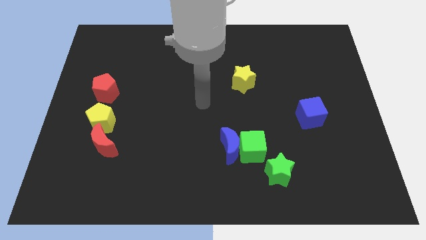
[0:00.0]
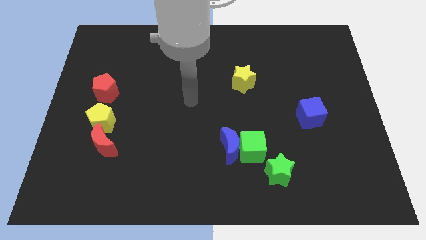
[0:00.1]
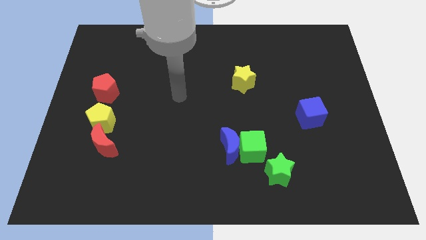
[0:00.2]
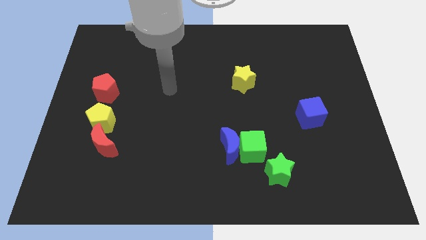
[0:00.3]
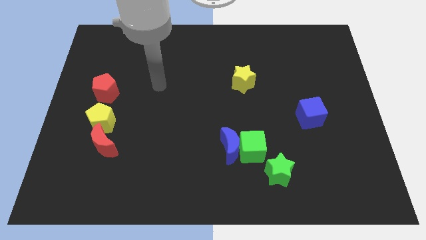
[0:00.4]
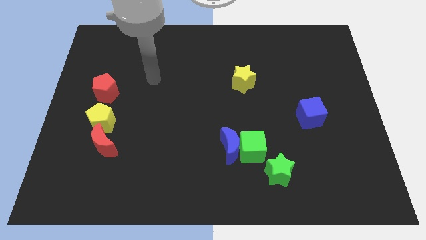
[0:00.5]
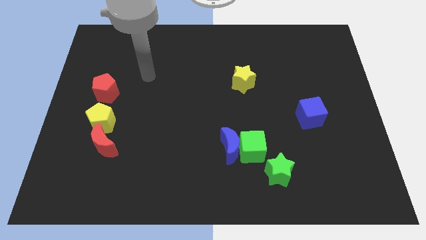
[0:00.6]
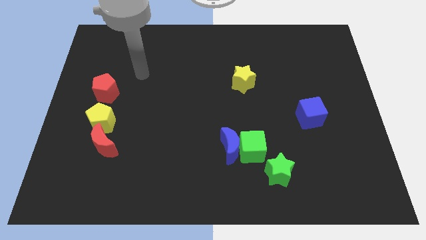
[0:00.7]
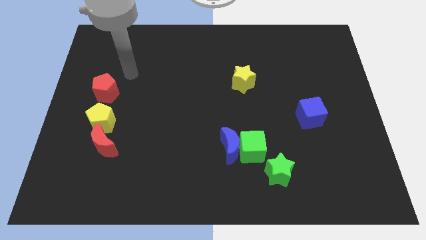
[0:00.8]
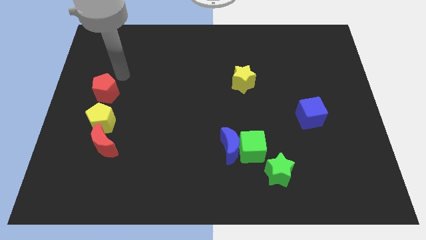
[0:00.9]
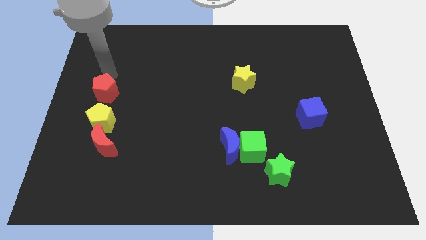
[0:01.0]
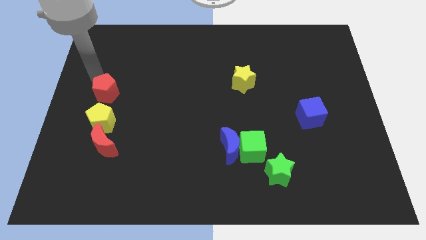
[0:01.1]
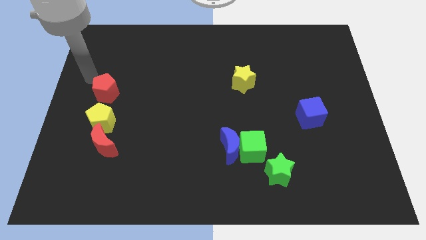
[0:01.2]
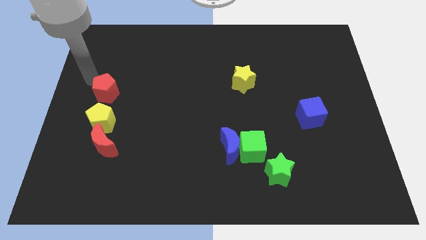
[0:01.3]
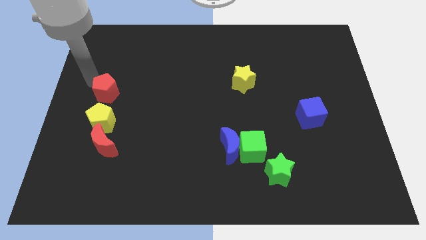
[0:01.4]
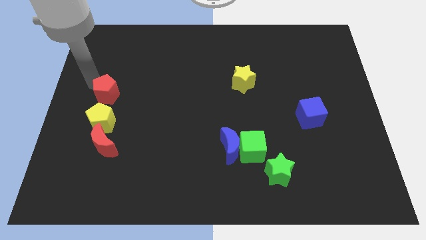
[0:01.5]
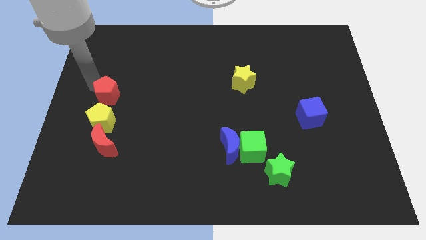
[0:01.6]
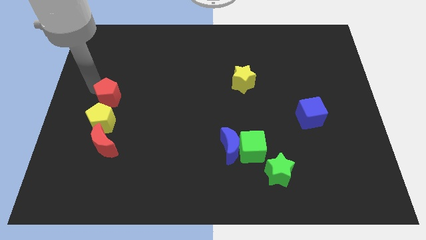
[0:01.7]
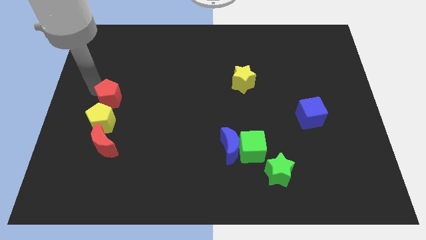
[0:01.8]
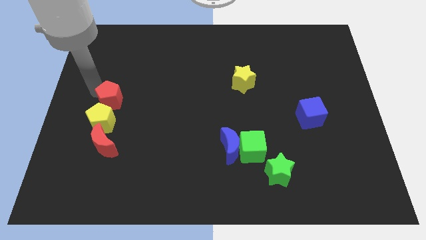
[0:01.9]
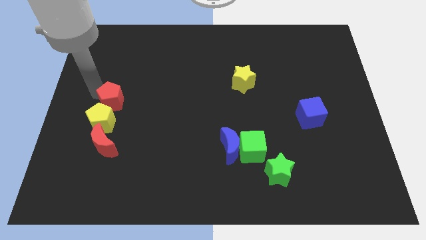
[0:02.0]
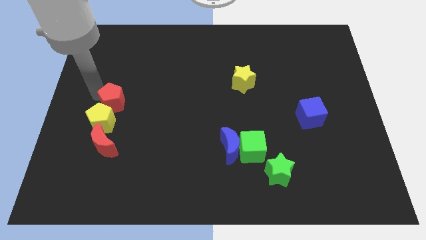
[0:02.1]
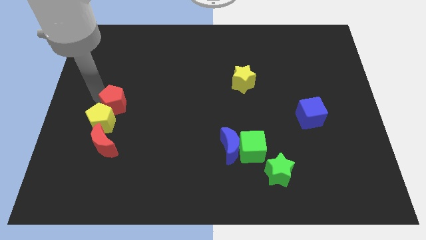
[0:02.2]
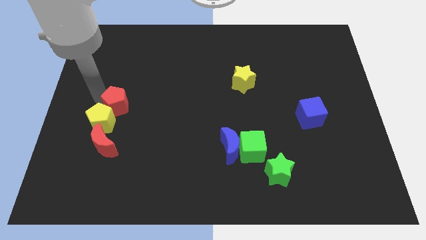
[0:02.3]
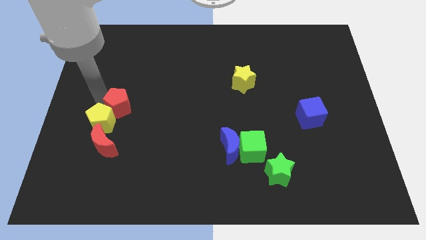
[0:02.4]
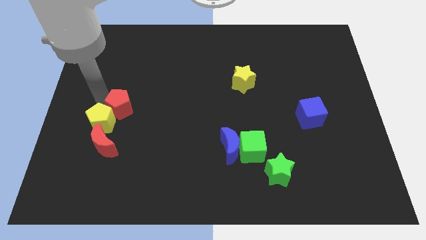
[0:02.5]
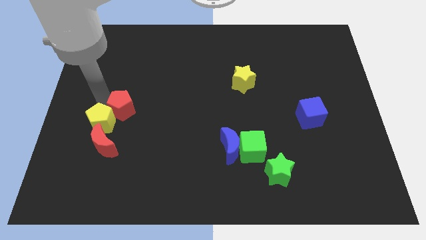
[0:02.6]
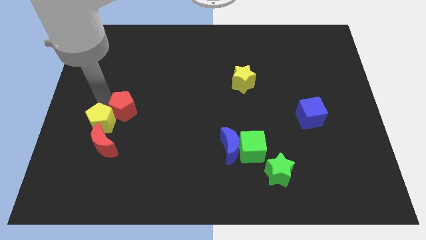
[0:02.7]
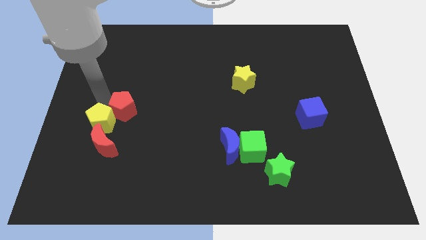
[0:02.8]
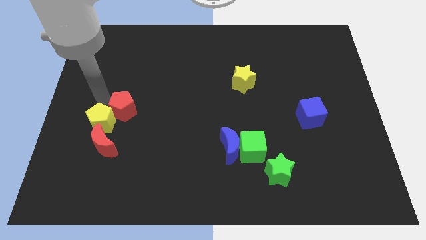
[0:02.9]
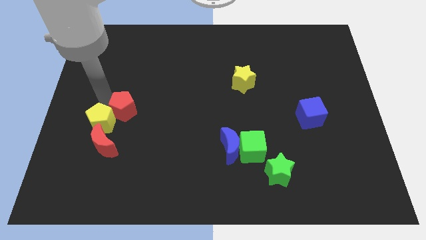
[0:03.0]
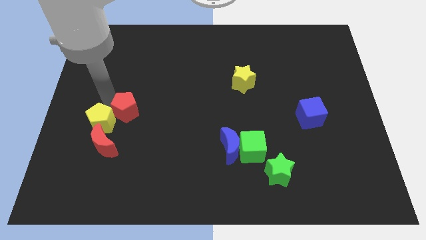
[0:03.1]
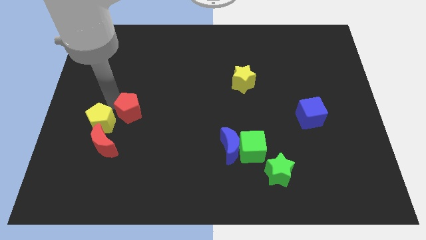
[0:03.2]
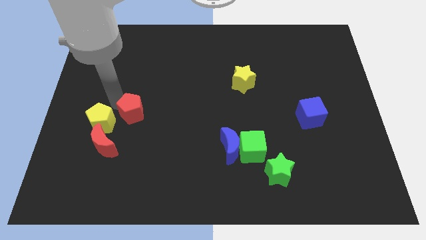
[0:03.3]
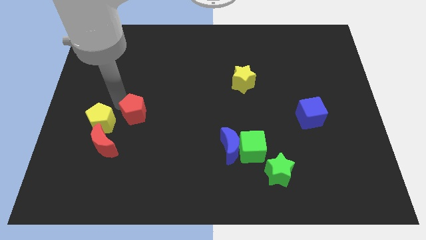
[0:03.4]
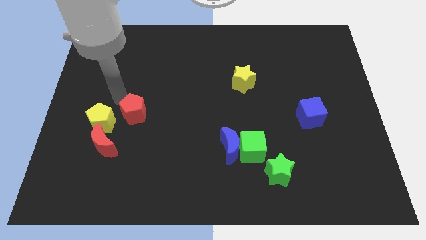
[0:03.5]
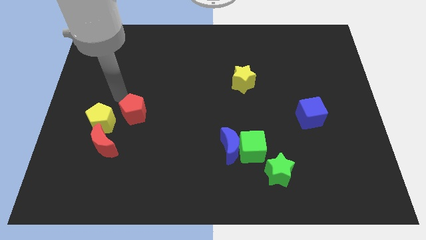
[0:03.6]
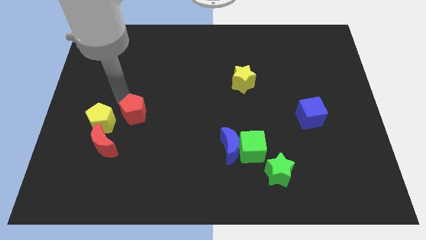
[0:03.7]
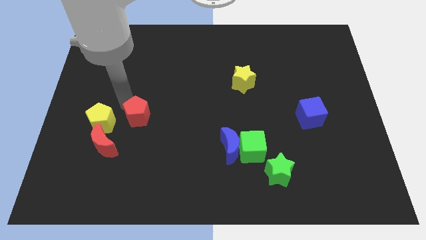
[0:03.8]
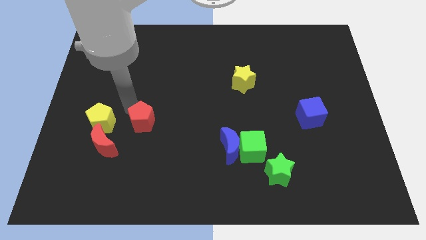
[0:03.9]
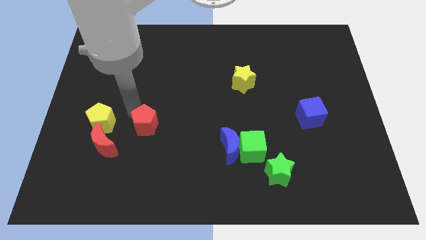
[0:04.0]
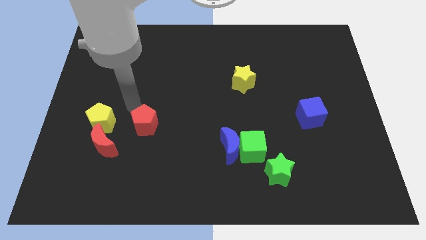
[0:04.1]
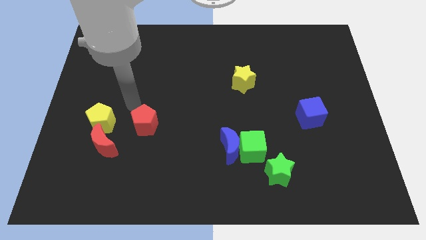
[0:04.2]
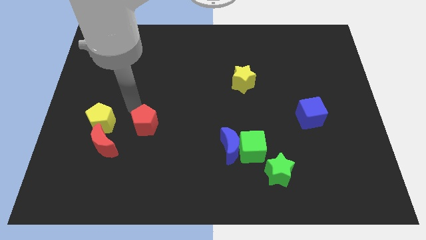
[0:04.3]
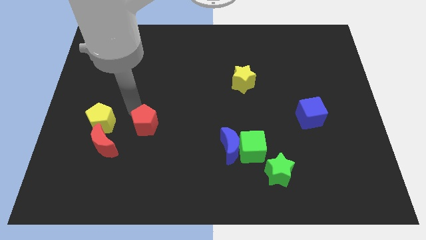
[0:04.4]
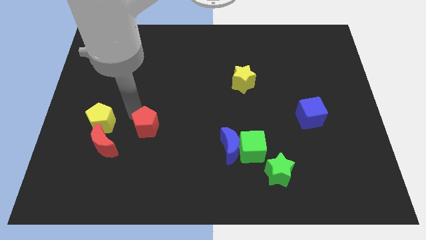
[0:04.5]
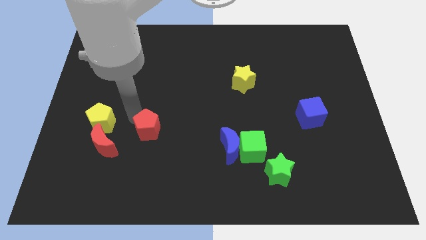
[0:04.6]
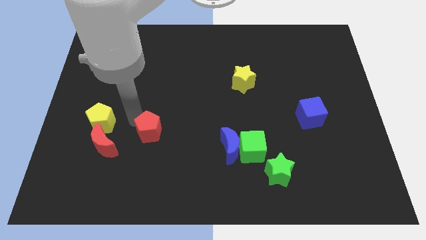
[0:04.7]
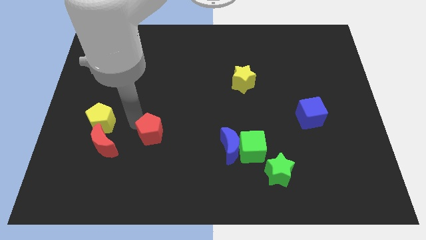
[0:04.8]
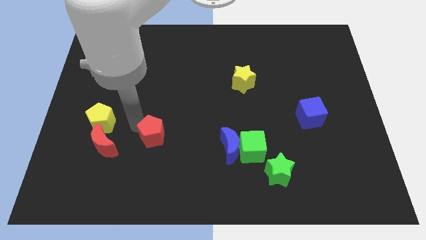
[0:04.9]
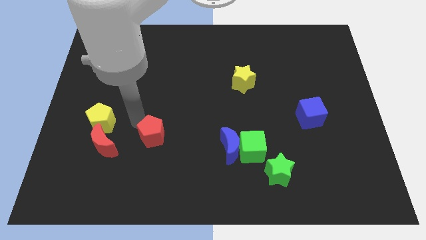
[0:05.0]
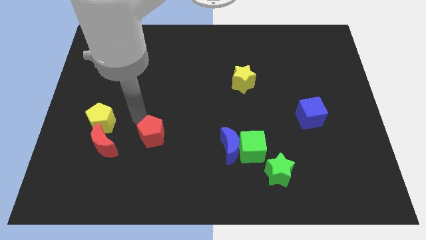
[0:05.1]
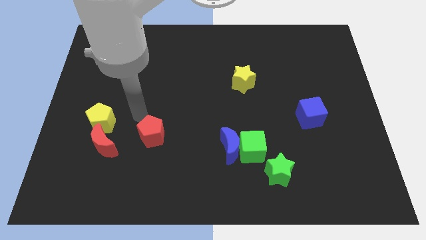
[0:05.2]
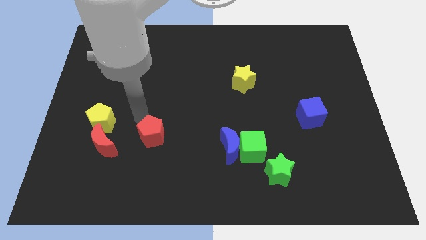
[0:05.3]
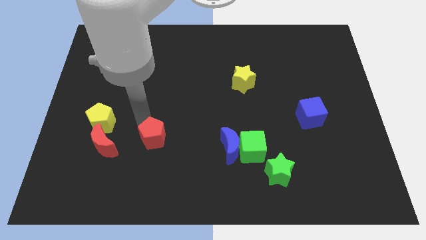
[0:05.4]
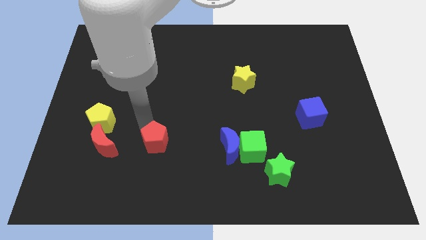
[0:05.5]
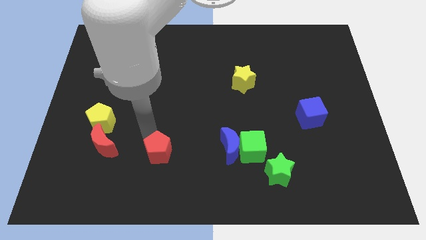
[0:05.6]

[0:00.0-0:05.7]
move the red pentagon downwards and right diagonally

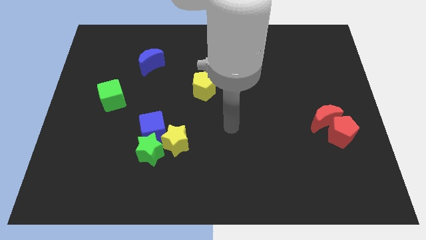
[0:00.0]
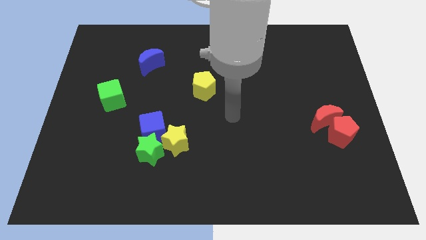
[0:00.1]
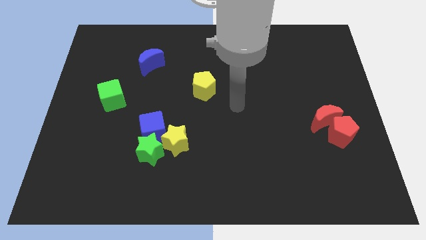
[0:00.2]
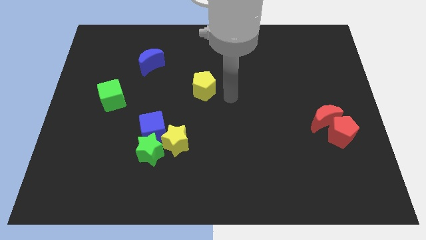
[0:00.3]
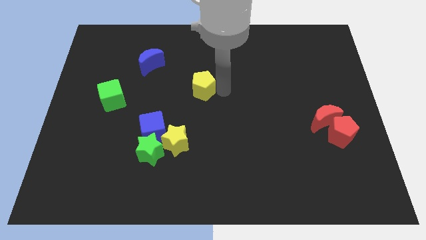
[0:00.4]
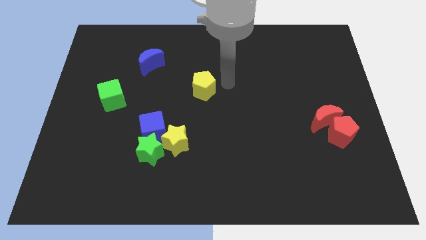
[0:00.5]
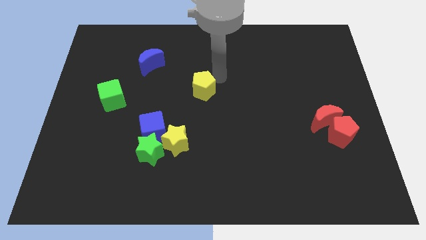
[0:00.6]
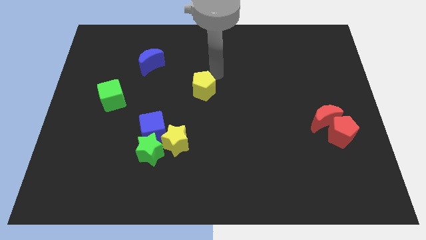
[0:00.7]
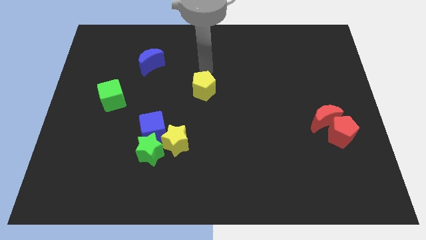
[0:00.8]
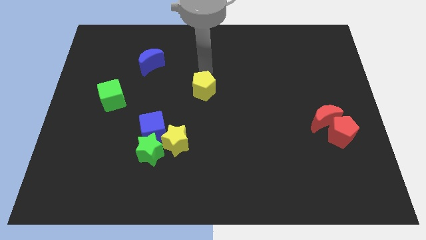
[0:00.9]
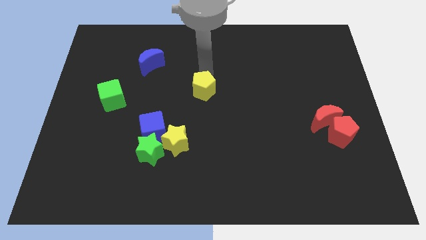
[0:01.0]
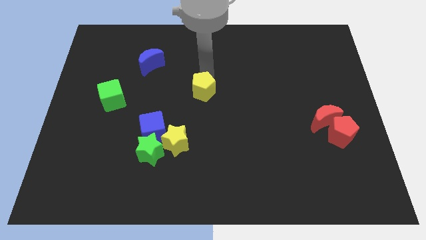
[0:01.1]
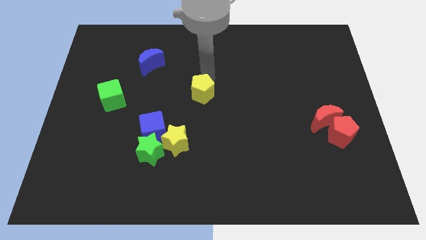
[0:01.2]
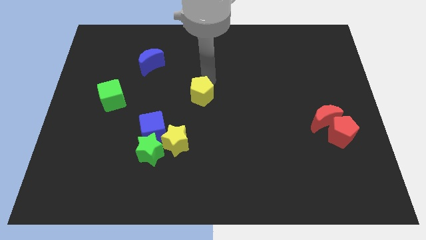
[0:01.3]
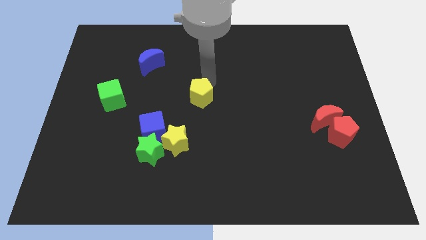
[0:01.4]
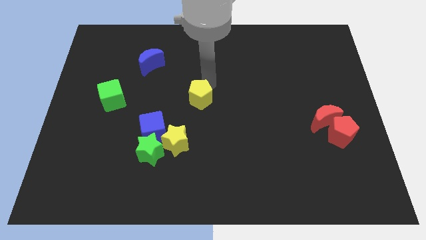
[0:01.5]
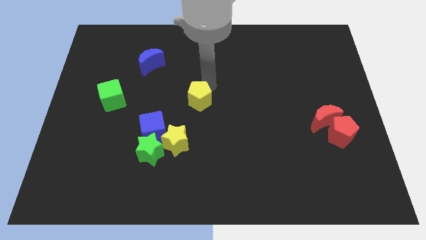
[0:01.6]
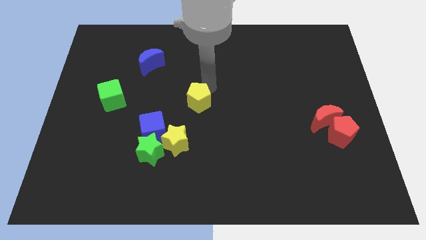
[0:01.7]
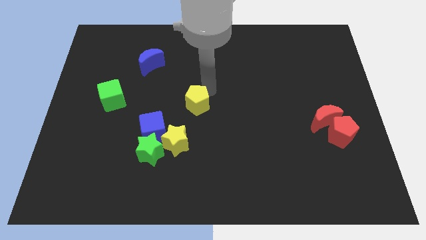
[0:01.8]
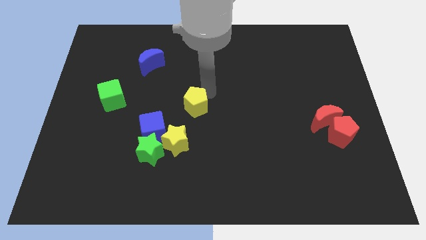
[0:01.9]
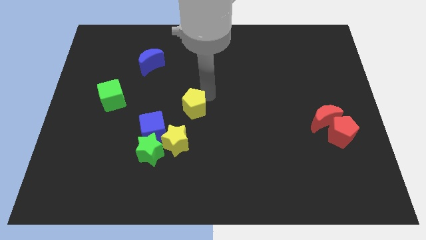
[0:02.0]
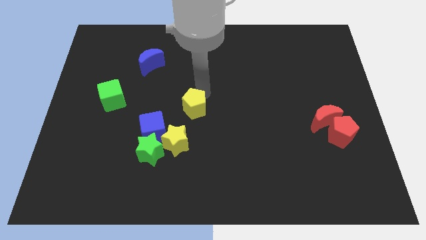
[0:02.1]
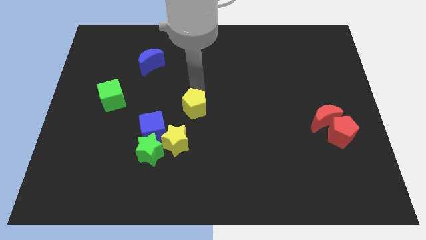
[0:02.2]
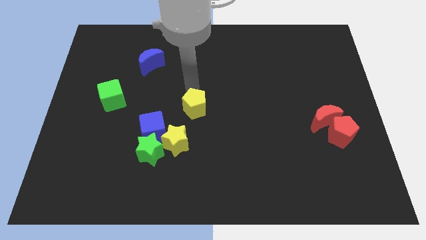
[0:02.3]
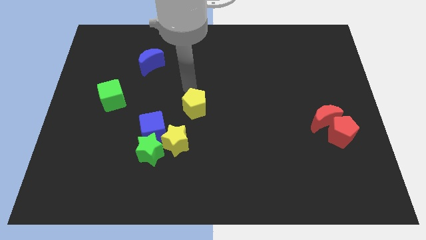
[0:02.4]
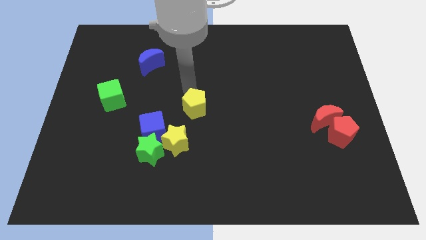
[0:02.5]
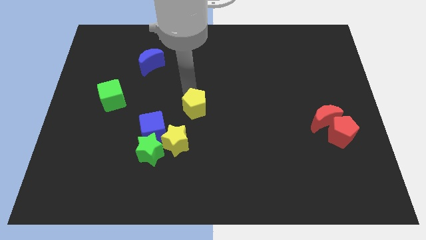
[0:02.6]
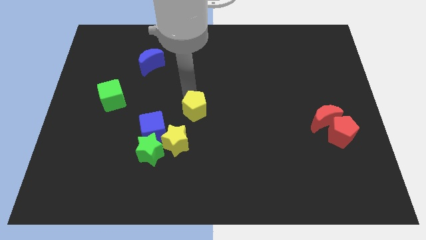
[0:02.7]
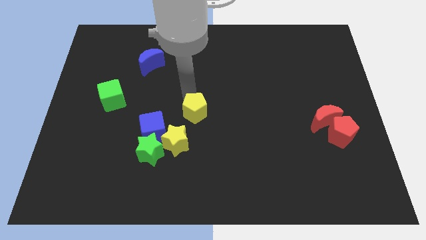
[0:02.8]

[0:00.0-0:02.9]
slide the yellow pentagon a bit downwards
